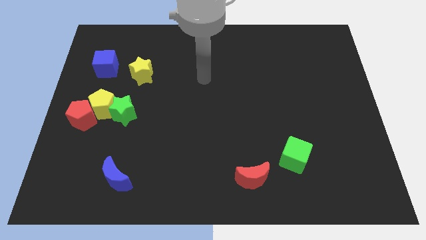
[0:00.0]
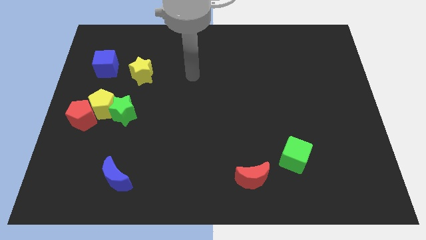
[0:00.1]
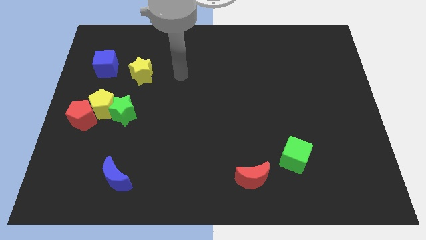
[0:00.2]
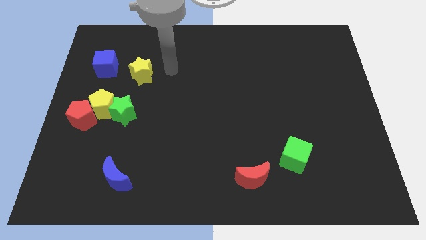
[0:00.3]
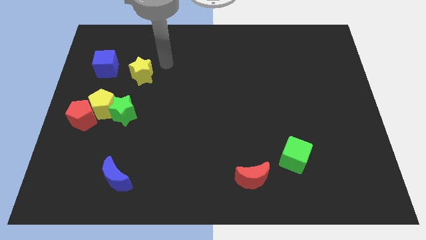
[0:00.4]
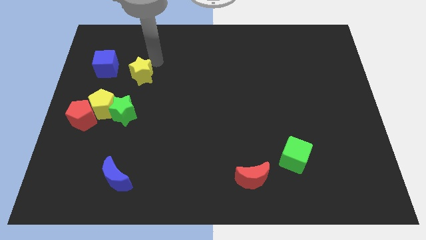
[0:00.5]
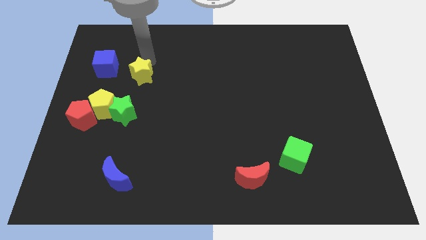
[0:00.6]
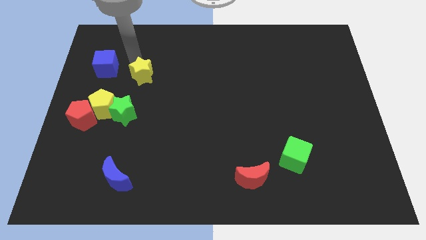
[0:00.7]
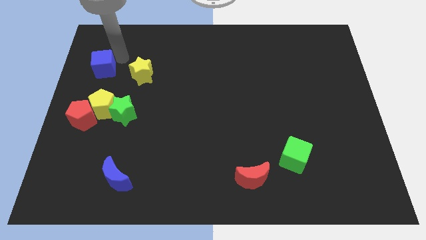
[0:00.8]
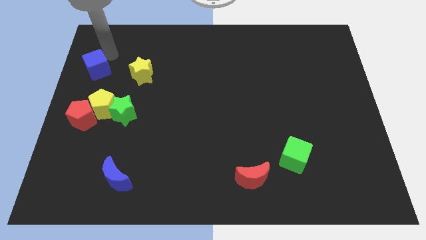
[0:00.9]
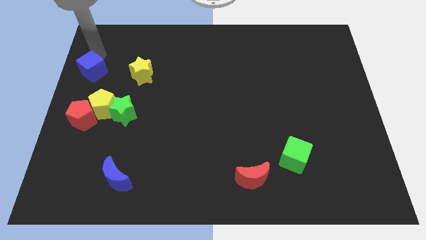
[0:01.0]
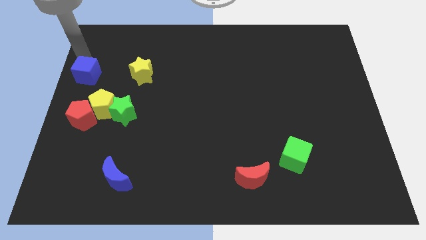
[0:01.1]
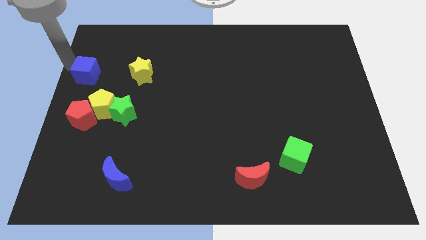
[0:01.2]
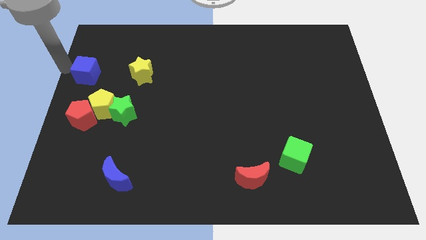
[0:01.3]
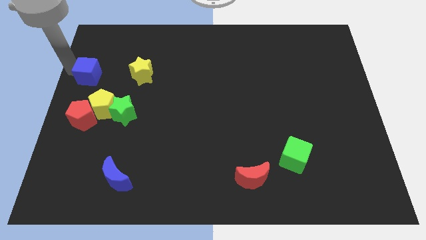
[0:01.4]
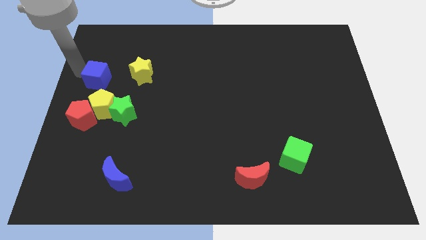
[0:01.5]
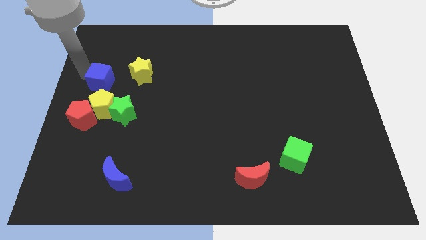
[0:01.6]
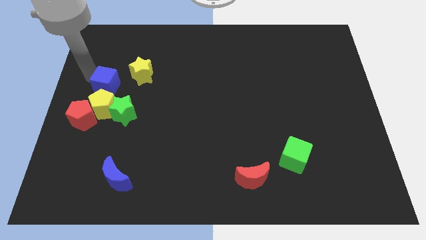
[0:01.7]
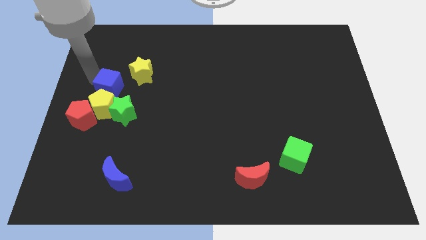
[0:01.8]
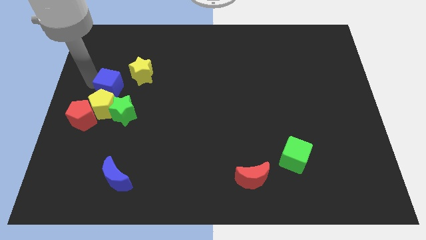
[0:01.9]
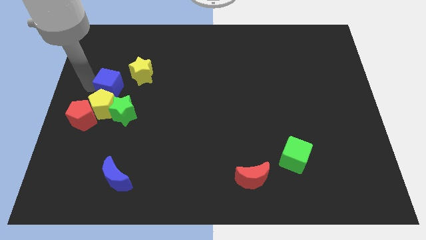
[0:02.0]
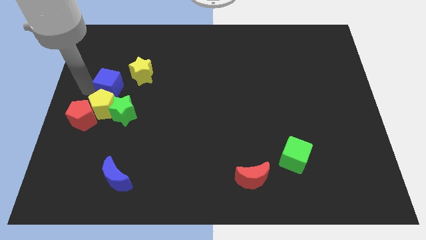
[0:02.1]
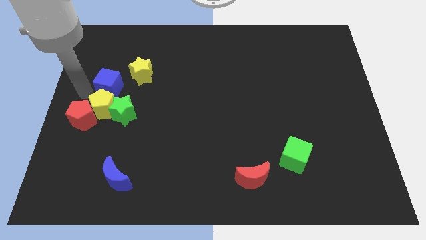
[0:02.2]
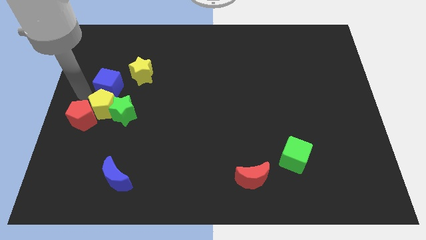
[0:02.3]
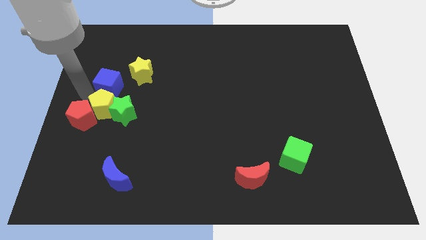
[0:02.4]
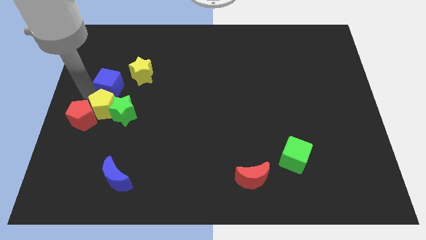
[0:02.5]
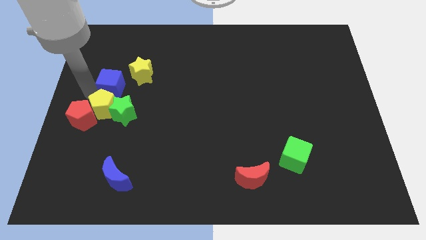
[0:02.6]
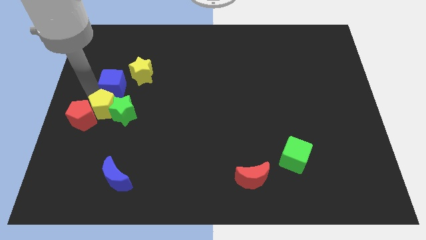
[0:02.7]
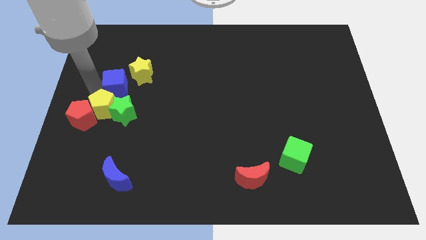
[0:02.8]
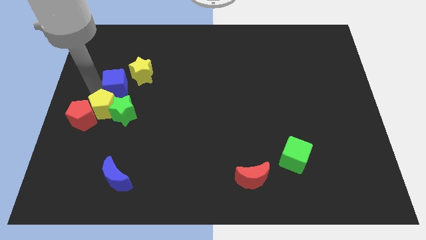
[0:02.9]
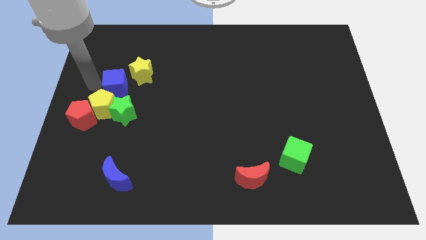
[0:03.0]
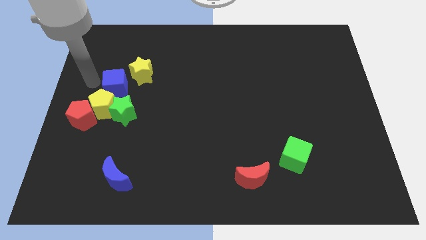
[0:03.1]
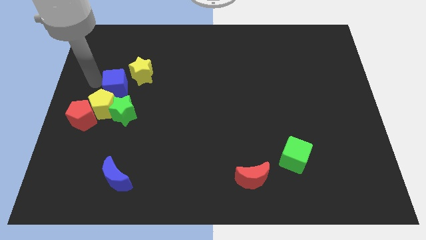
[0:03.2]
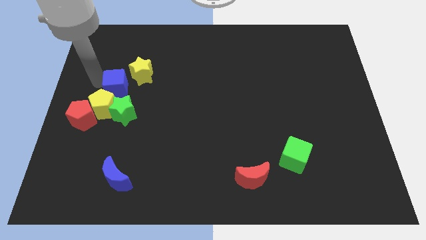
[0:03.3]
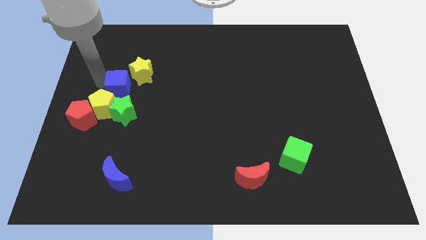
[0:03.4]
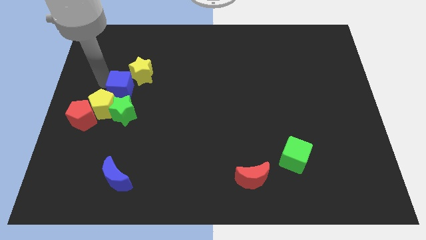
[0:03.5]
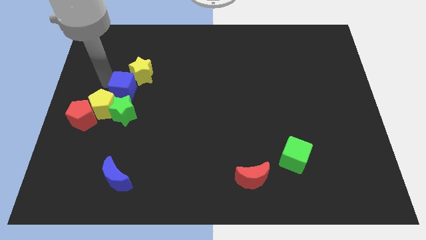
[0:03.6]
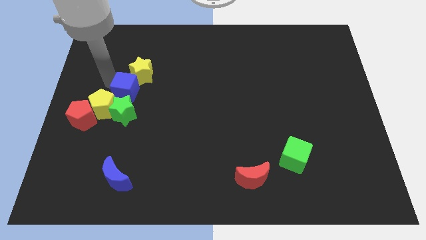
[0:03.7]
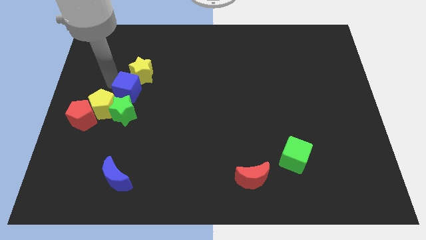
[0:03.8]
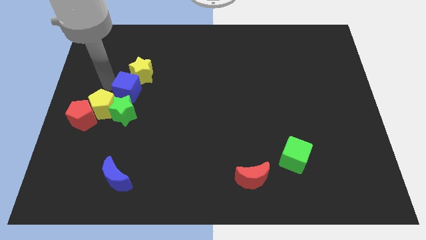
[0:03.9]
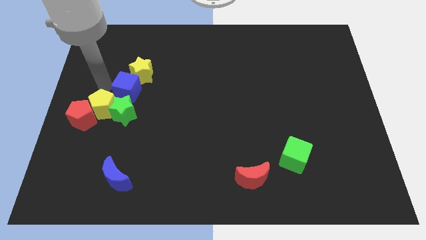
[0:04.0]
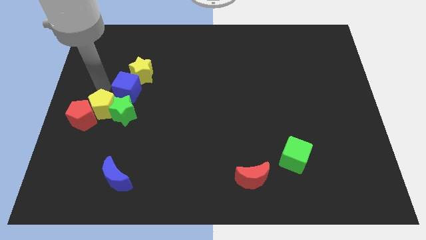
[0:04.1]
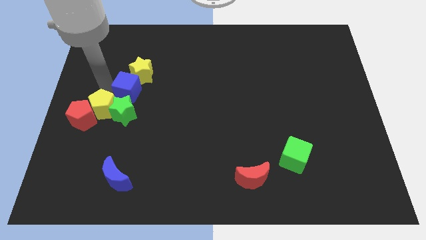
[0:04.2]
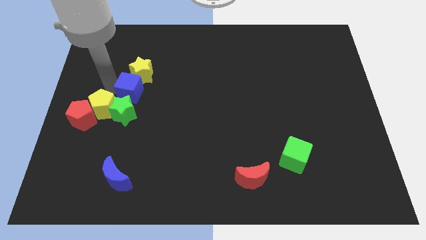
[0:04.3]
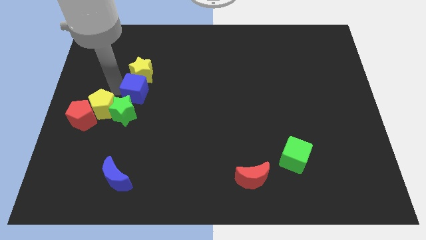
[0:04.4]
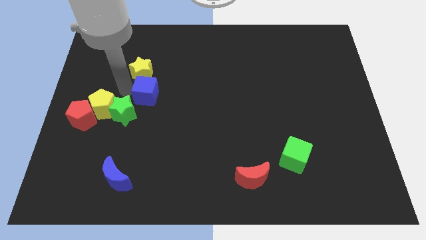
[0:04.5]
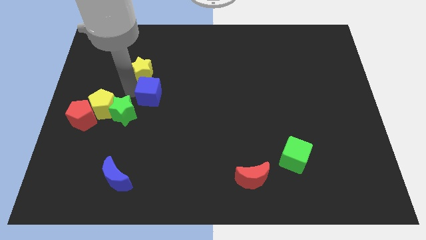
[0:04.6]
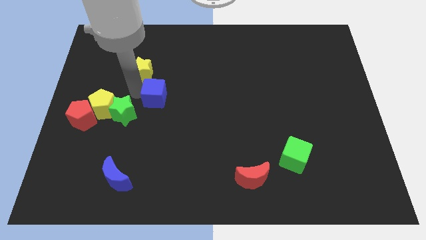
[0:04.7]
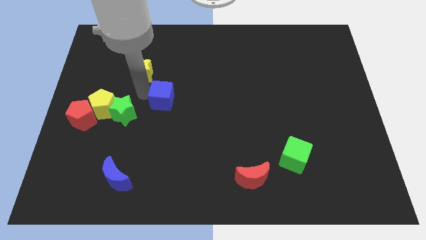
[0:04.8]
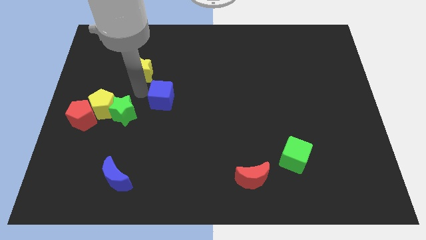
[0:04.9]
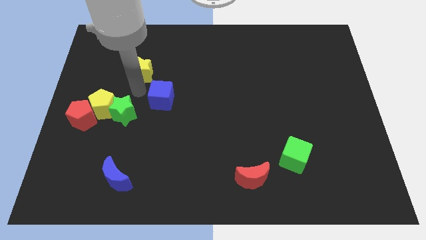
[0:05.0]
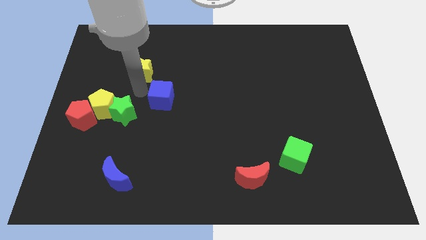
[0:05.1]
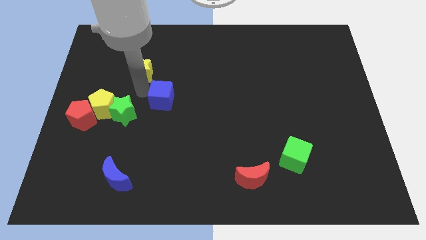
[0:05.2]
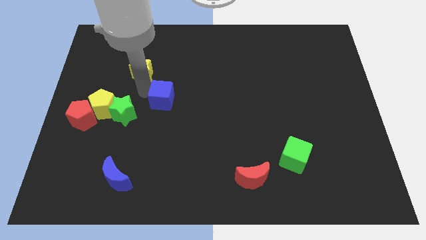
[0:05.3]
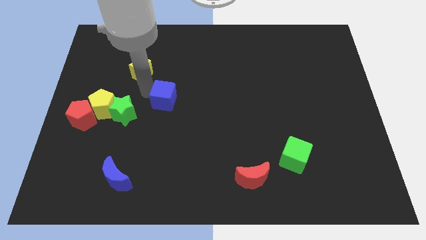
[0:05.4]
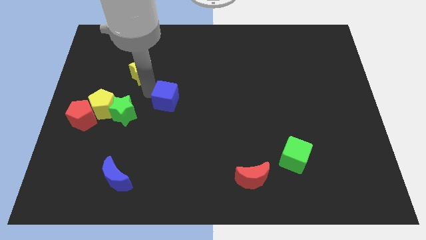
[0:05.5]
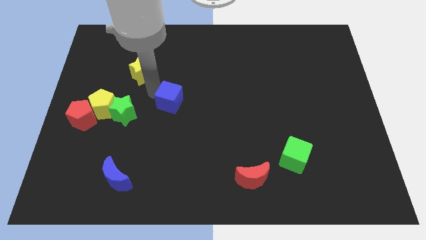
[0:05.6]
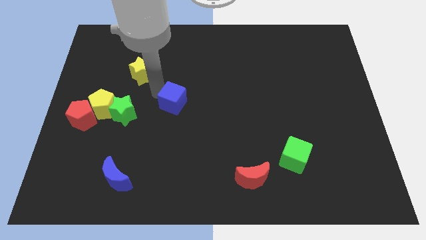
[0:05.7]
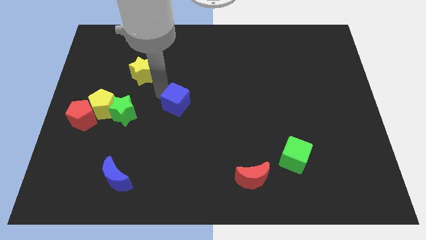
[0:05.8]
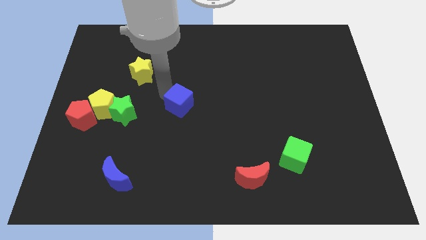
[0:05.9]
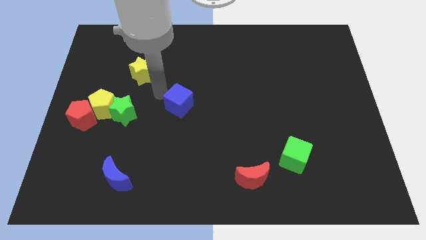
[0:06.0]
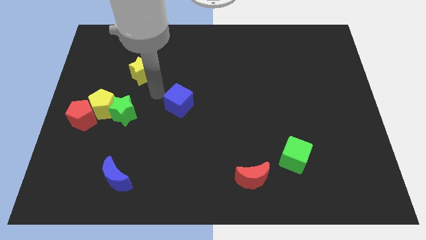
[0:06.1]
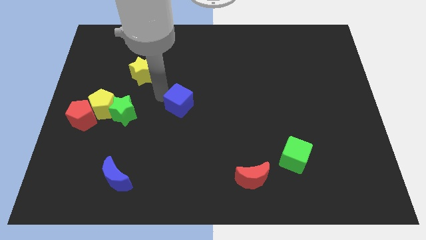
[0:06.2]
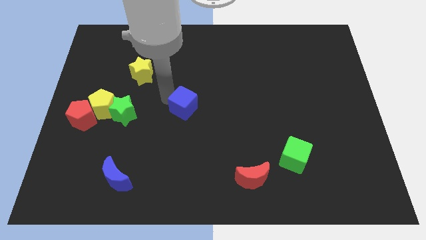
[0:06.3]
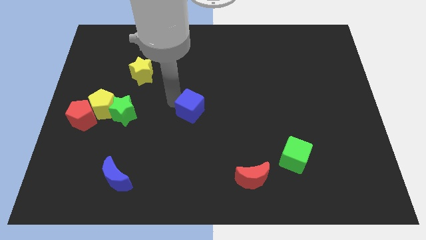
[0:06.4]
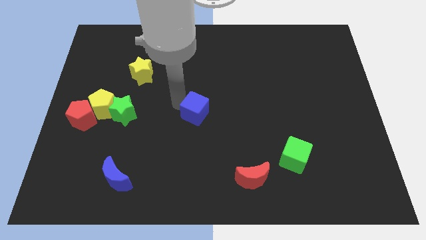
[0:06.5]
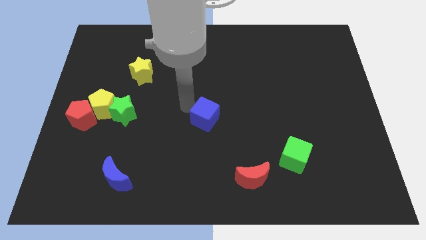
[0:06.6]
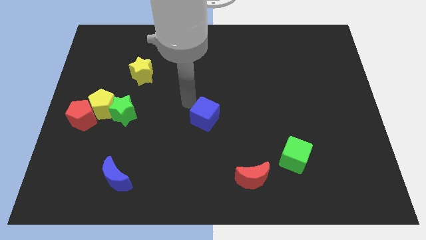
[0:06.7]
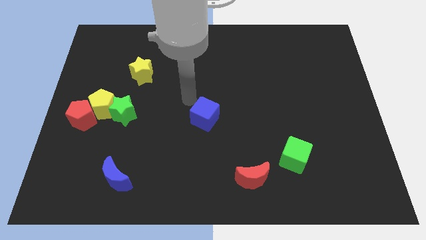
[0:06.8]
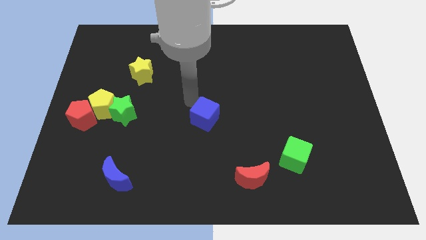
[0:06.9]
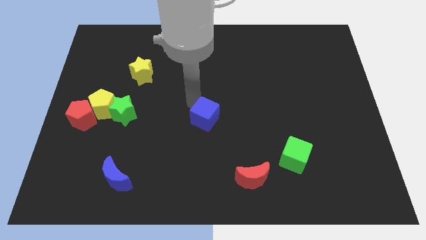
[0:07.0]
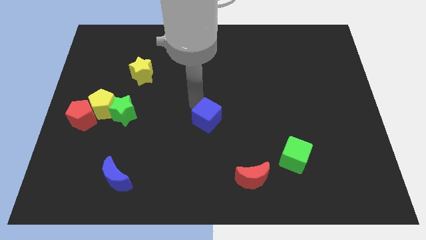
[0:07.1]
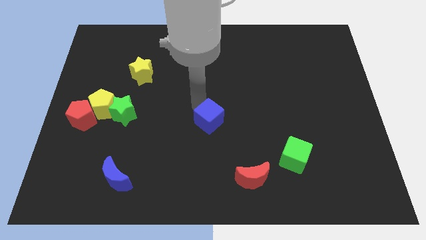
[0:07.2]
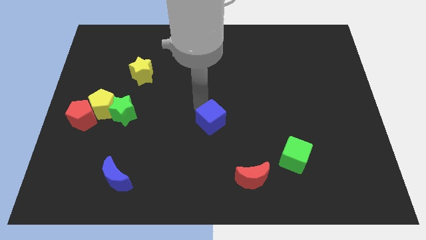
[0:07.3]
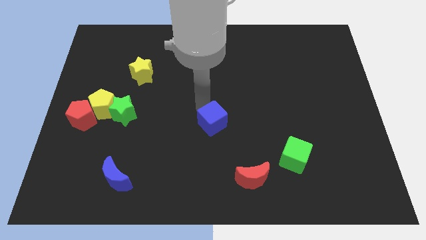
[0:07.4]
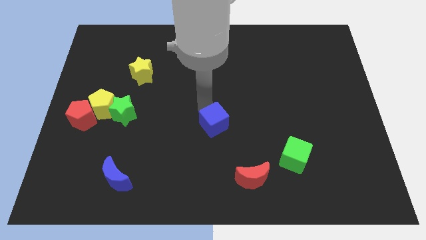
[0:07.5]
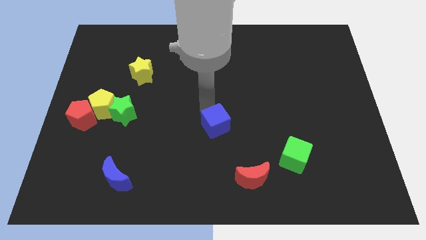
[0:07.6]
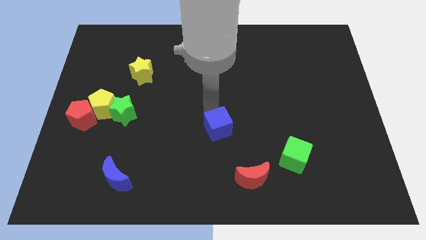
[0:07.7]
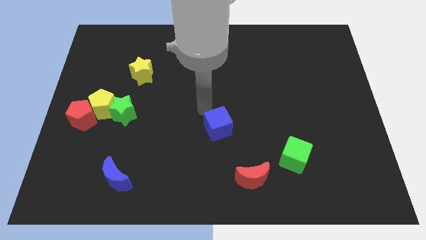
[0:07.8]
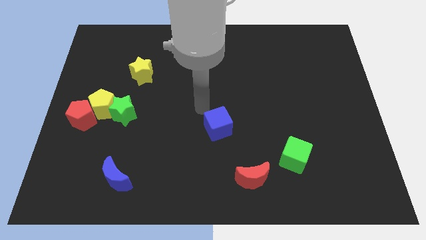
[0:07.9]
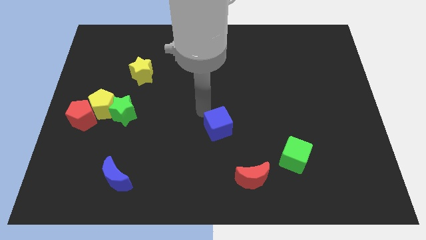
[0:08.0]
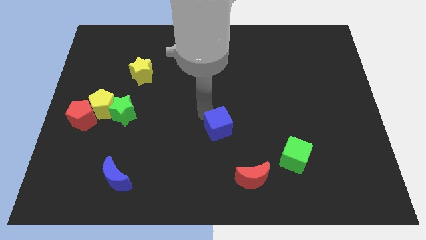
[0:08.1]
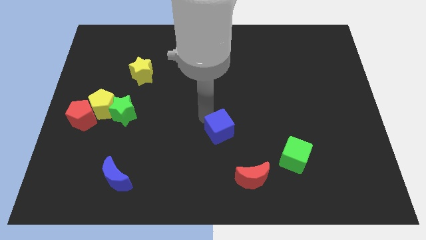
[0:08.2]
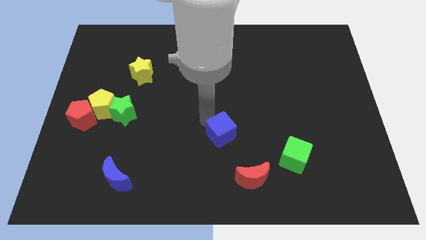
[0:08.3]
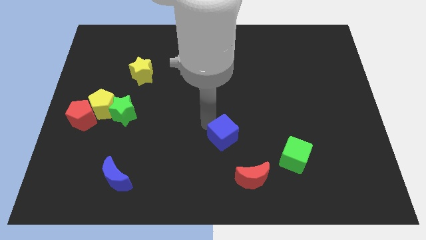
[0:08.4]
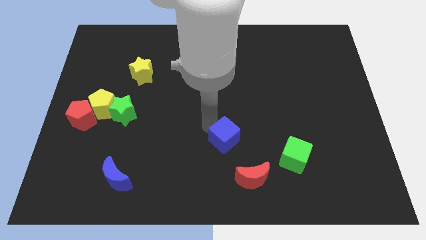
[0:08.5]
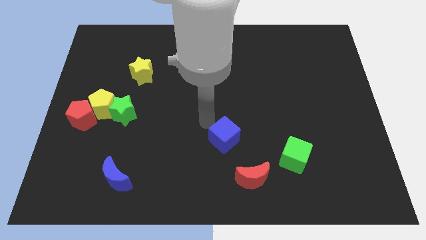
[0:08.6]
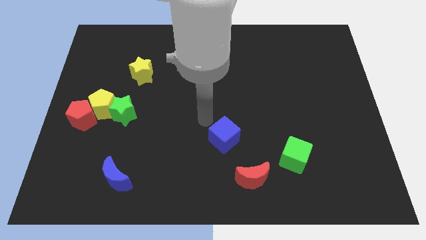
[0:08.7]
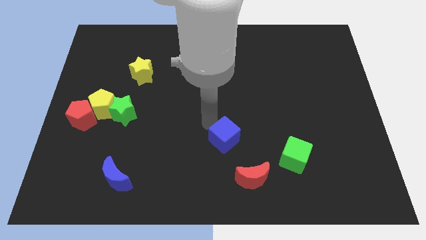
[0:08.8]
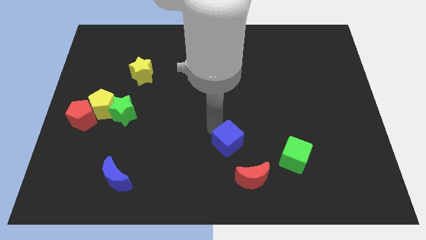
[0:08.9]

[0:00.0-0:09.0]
move the blue cube left of the green cube
